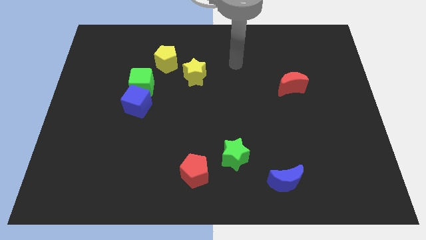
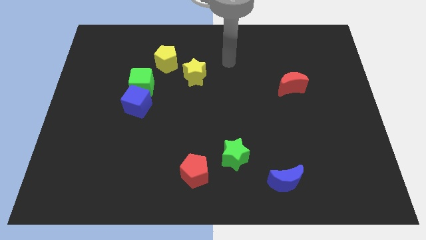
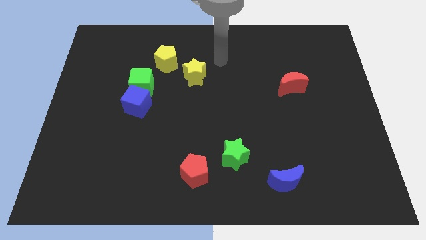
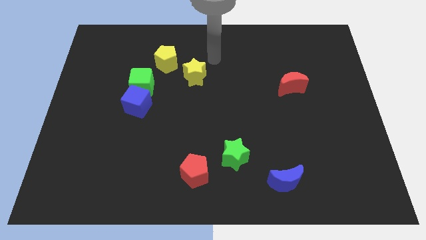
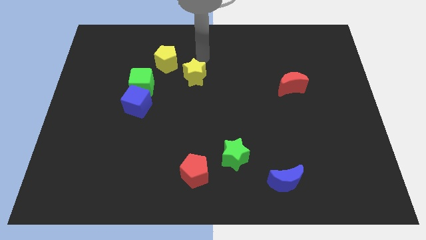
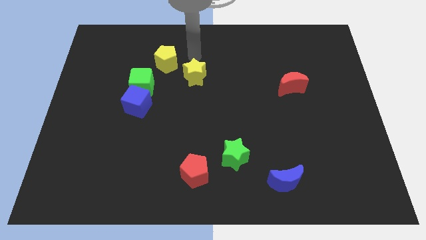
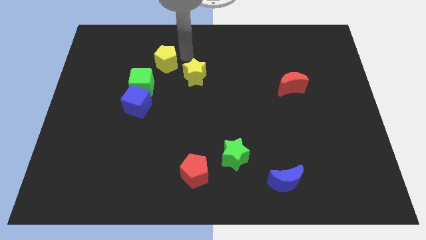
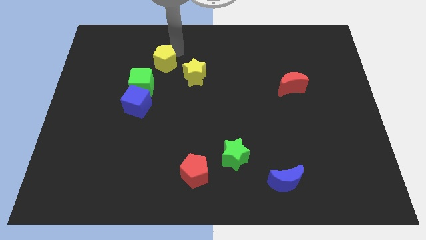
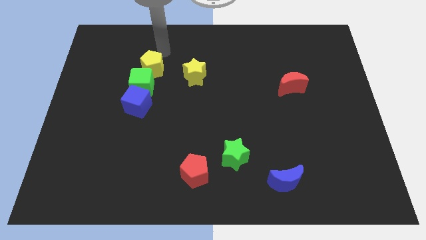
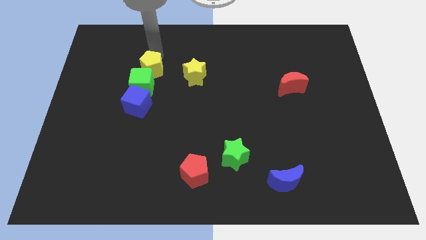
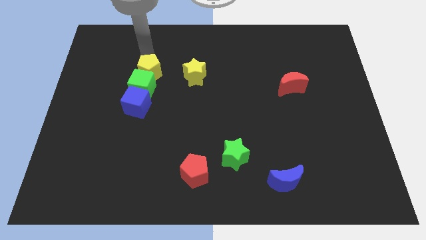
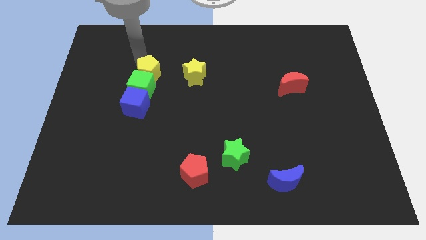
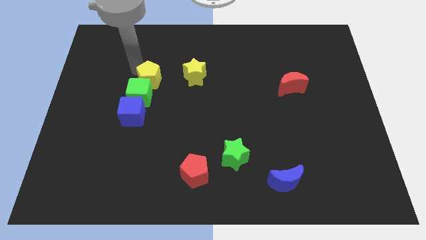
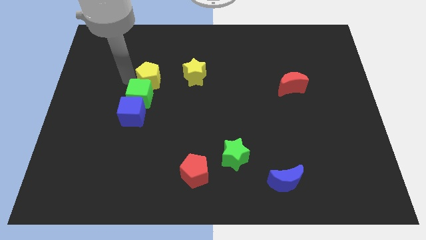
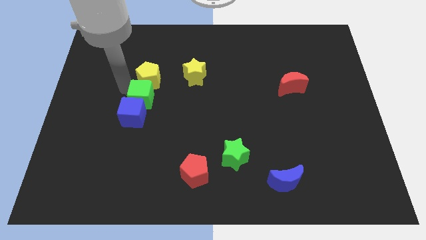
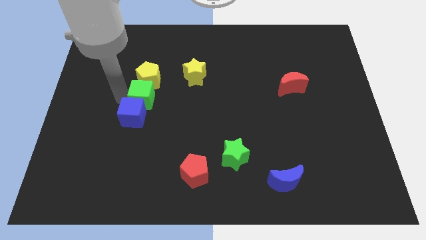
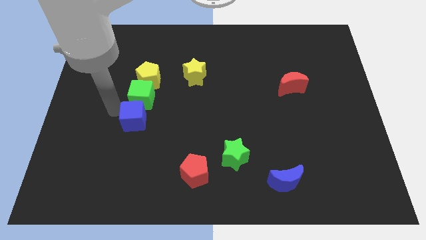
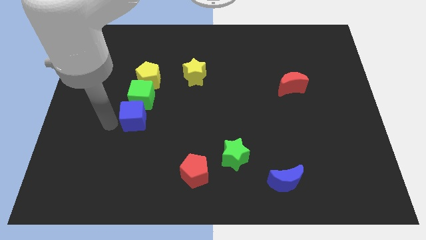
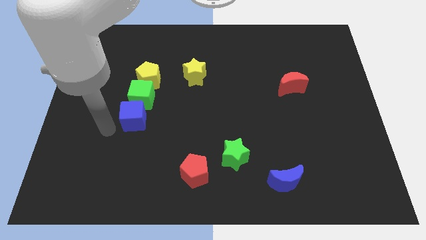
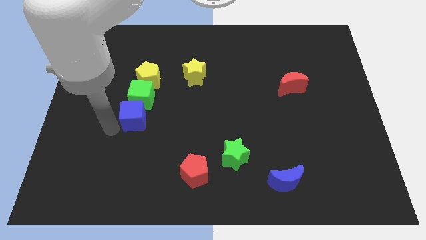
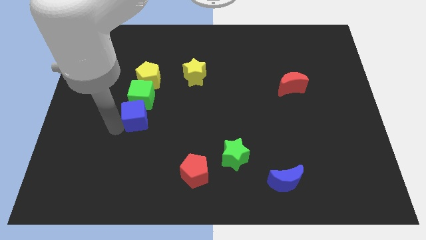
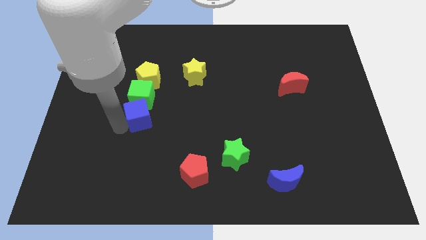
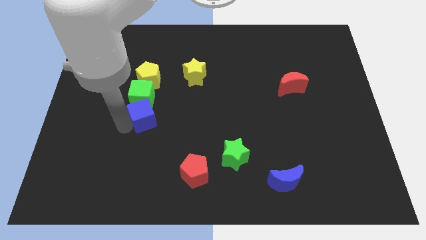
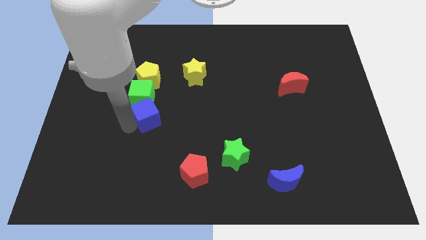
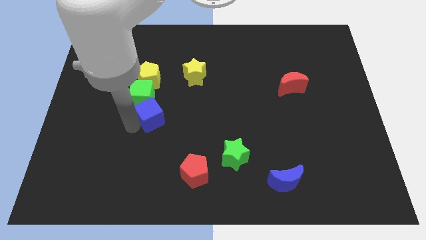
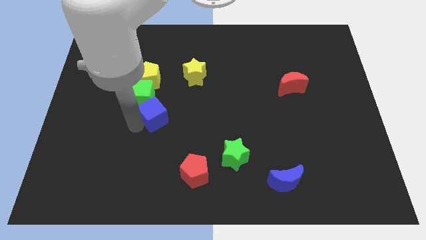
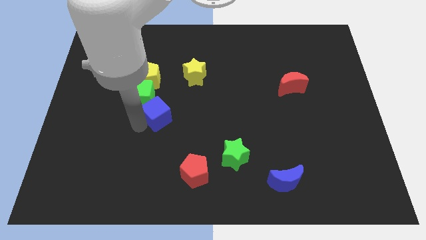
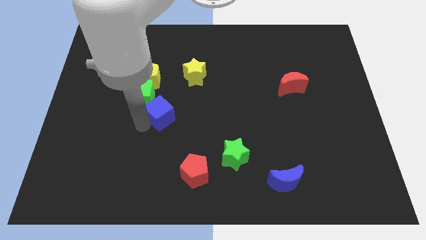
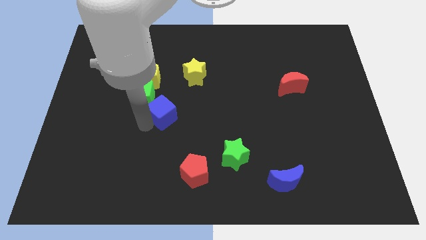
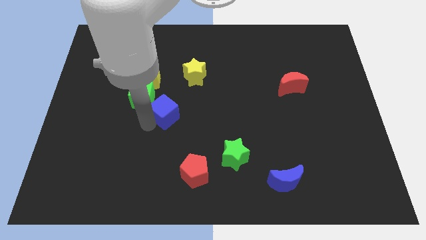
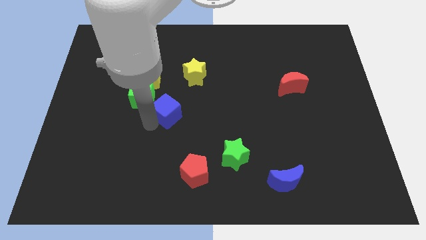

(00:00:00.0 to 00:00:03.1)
slightly slide the blue cube right

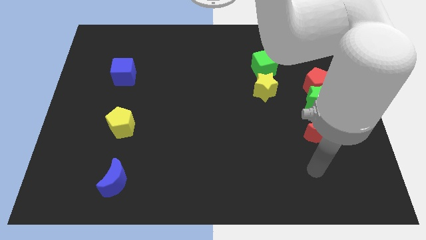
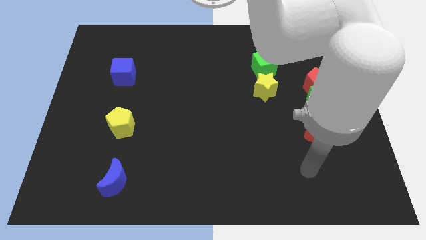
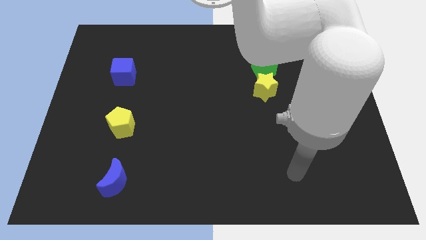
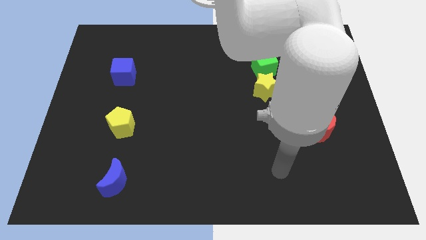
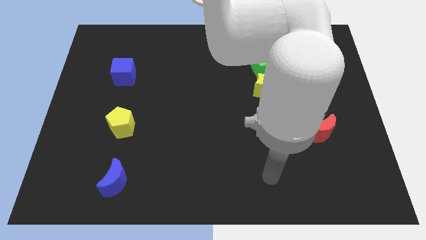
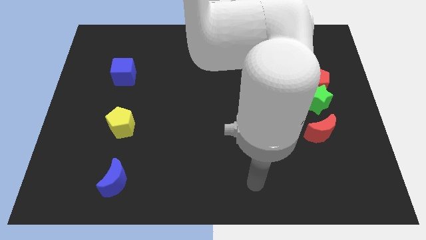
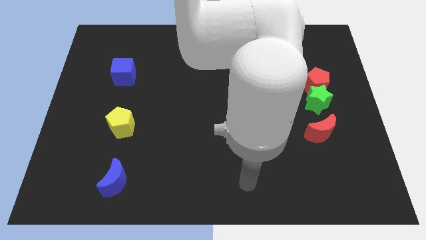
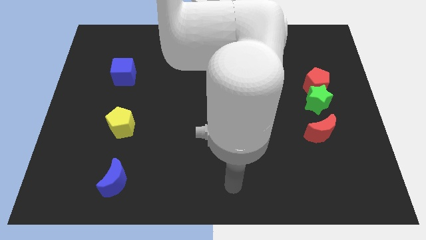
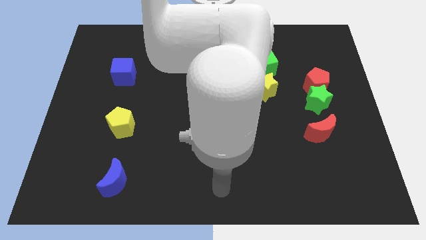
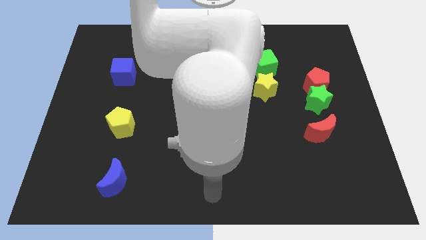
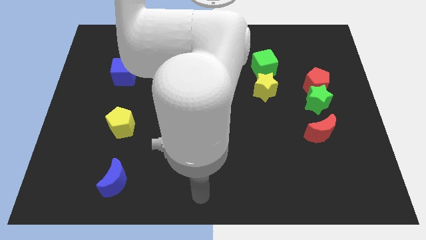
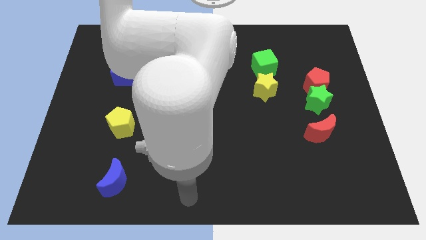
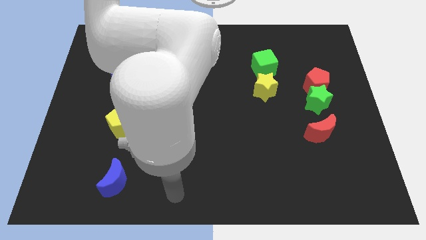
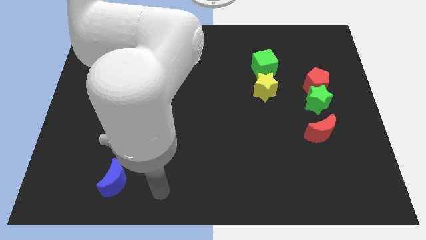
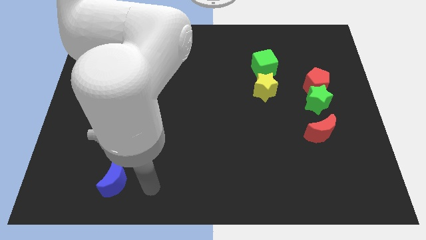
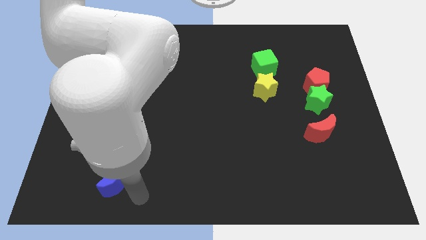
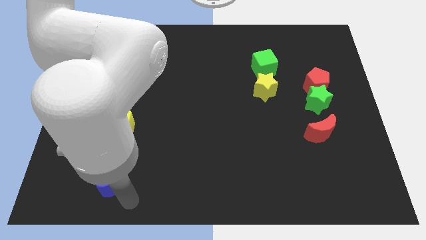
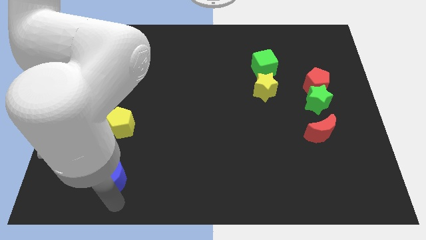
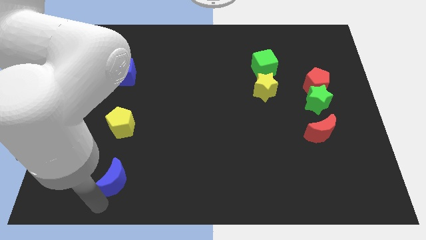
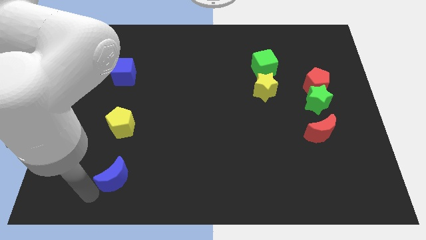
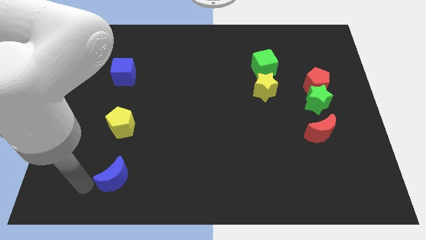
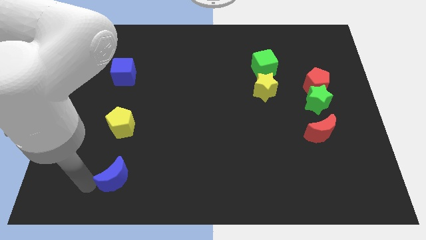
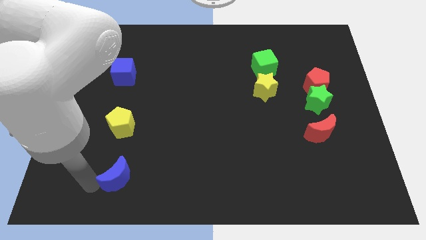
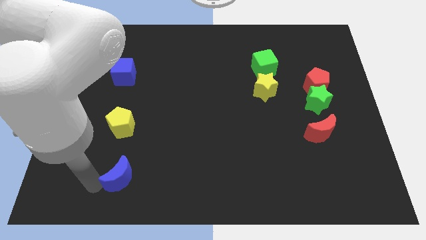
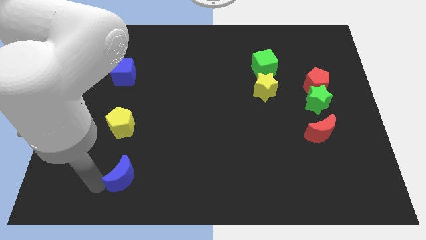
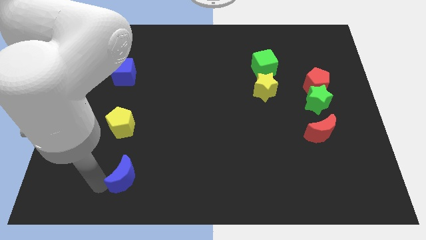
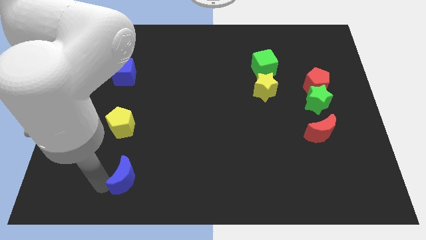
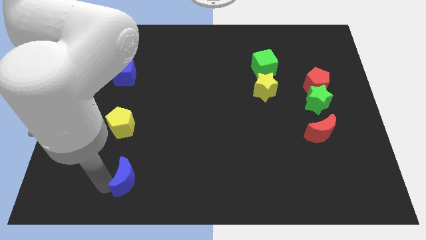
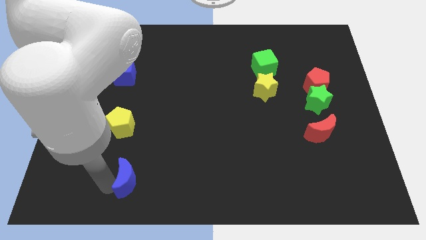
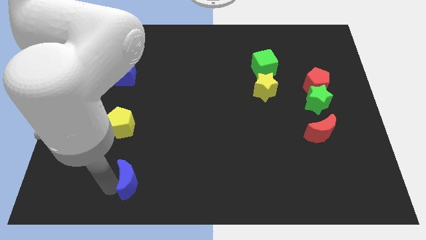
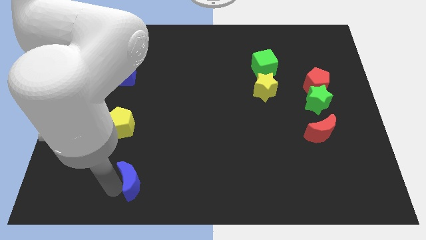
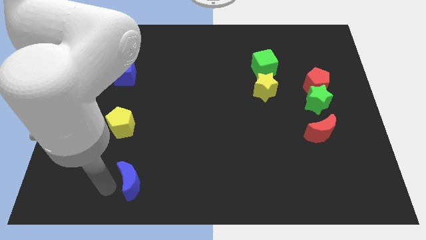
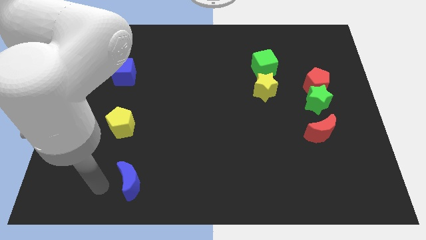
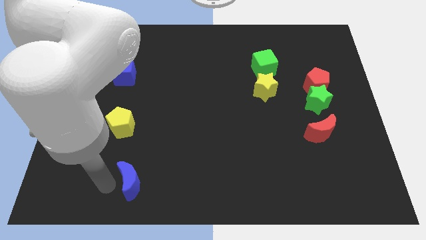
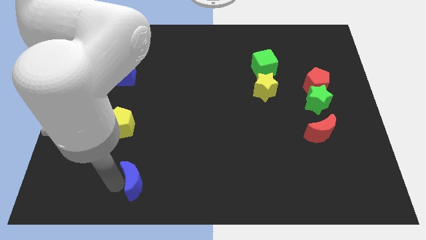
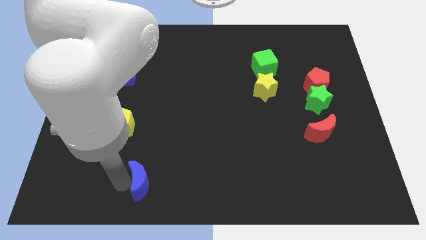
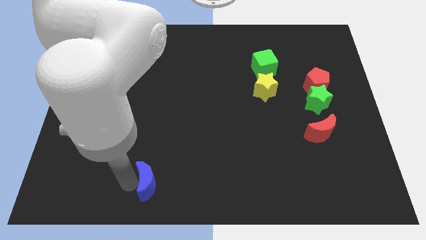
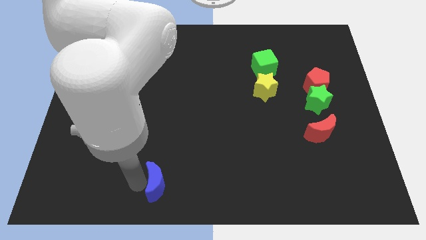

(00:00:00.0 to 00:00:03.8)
push the blue moon to the right slightly

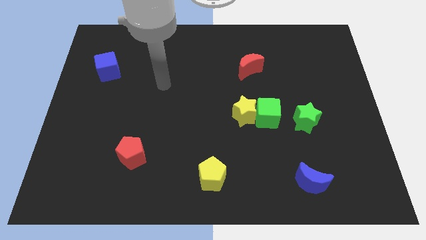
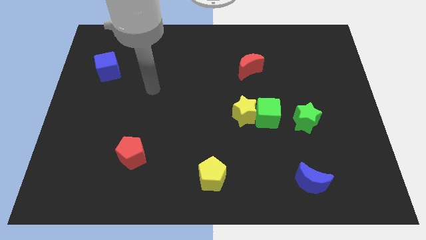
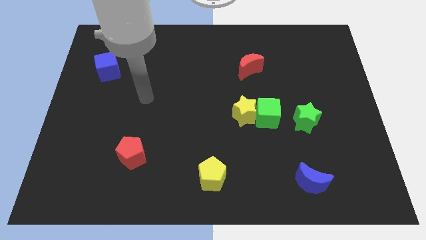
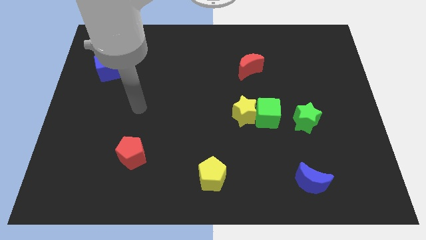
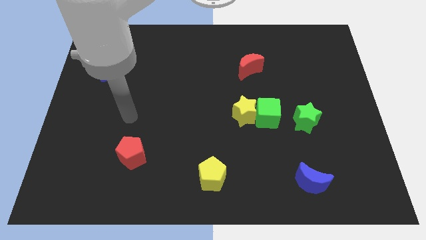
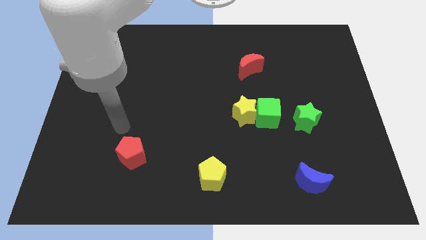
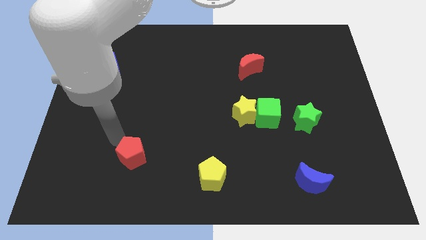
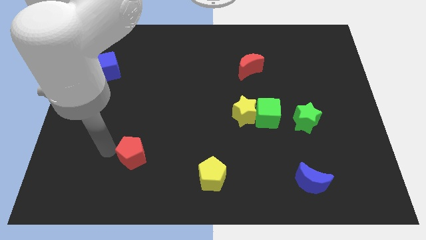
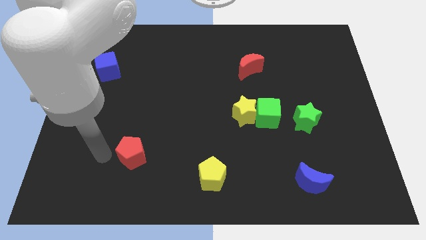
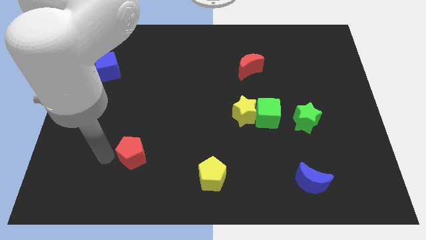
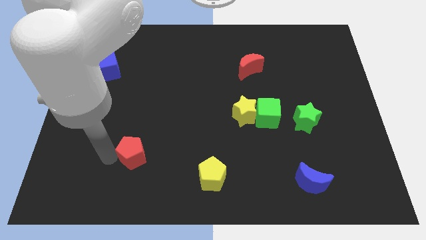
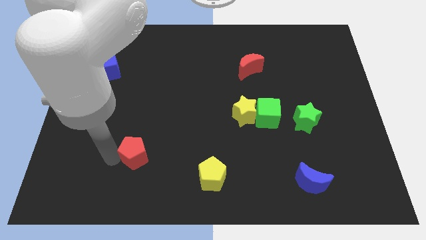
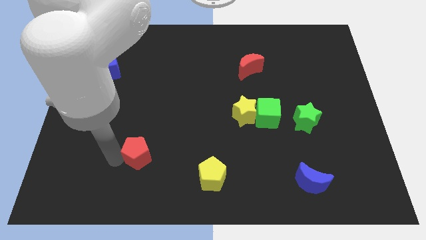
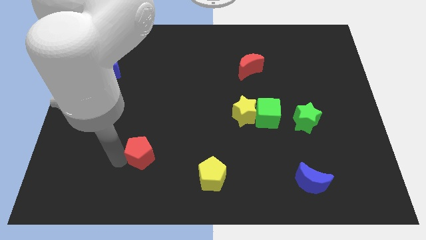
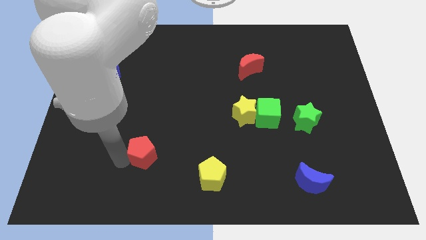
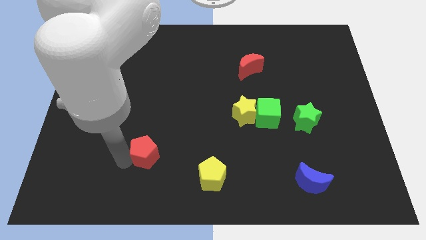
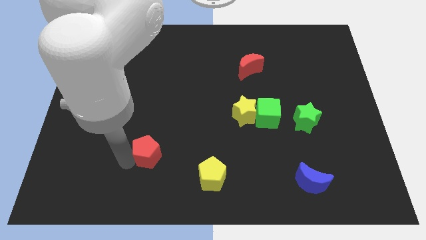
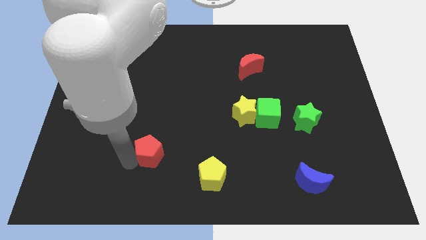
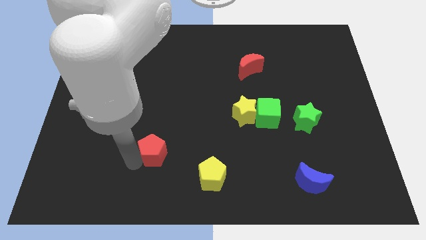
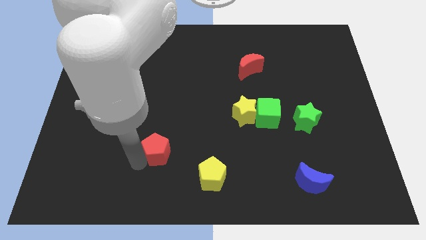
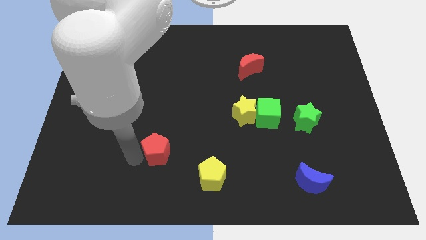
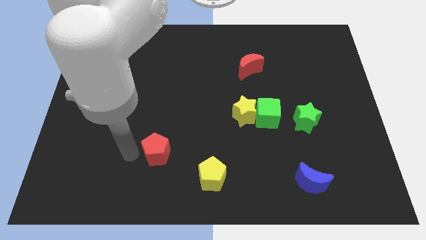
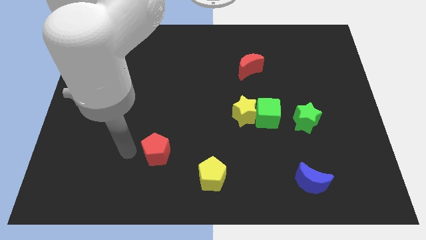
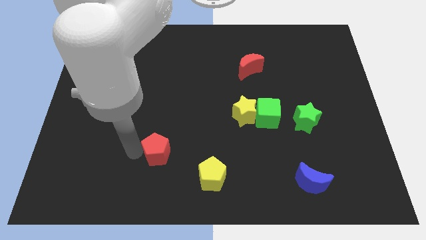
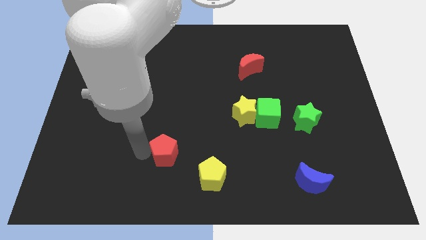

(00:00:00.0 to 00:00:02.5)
push the red pentagon somewhat right
